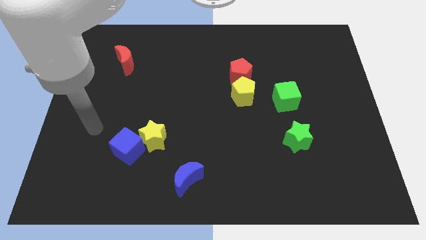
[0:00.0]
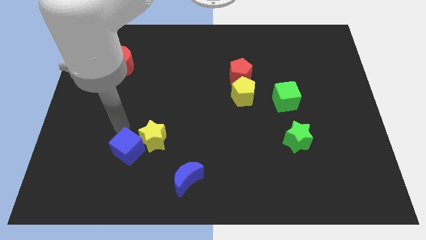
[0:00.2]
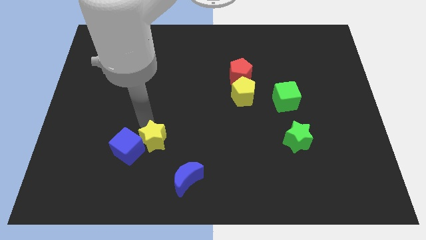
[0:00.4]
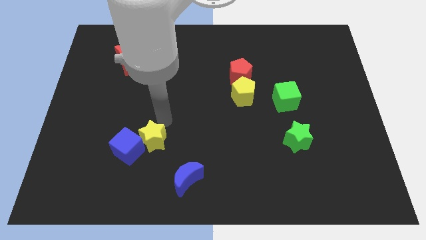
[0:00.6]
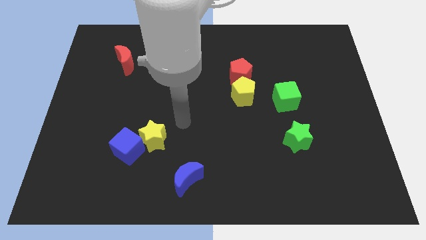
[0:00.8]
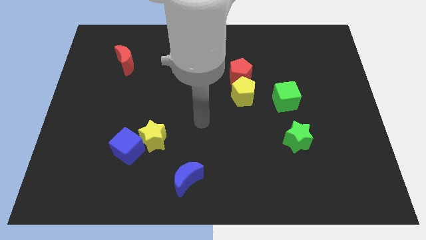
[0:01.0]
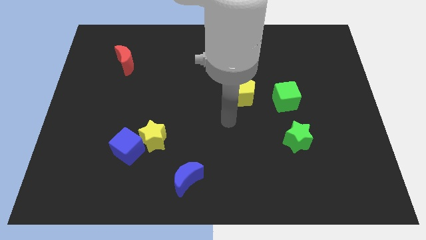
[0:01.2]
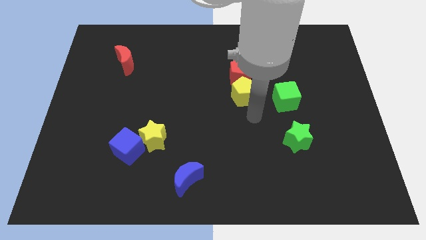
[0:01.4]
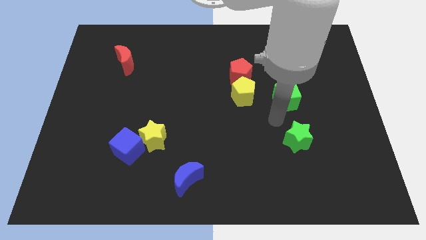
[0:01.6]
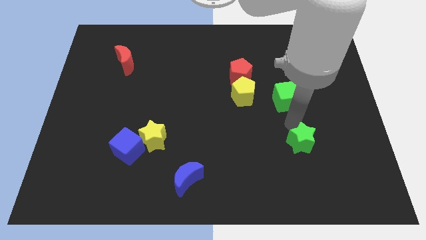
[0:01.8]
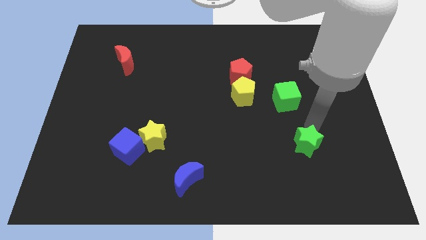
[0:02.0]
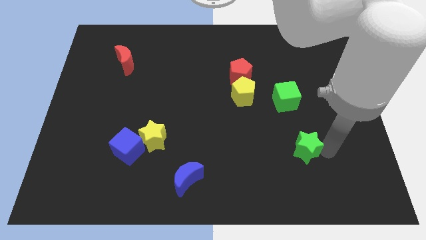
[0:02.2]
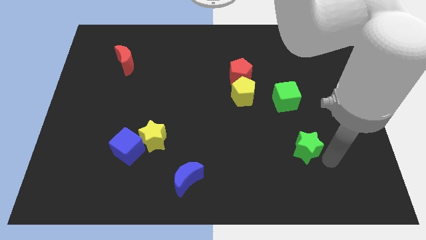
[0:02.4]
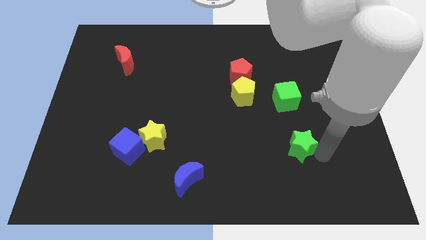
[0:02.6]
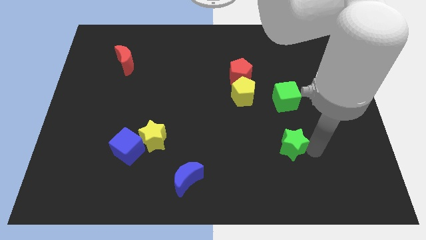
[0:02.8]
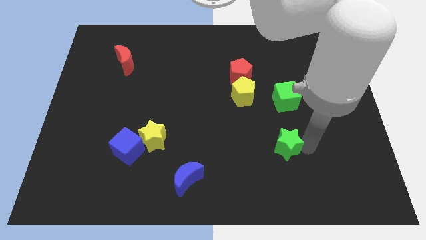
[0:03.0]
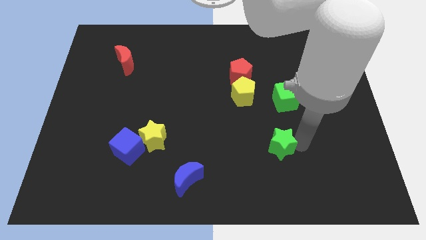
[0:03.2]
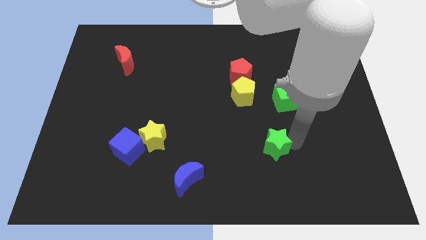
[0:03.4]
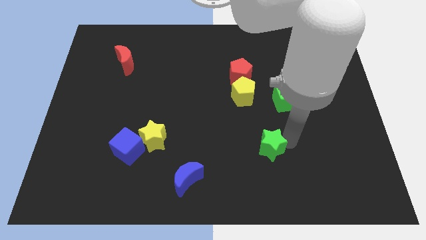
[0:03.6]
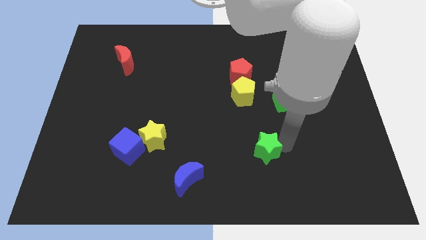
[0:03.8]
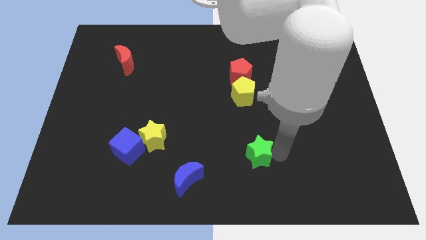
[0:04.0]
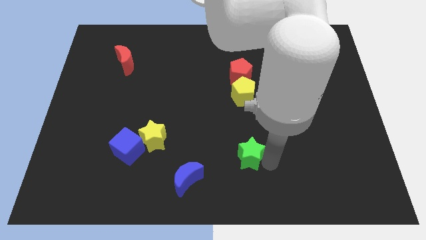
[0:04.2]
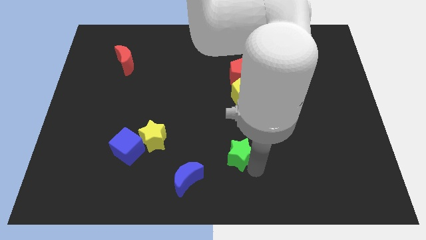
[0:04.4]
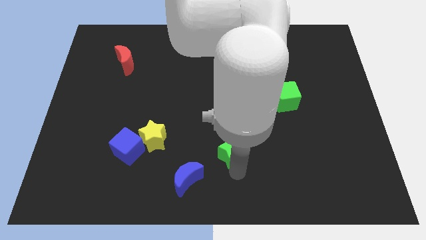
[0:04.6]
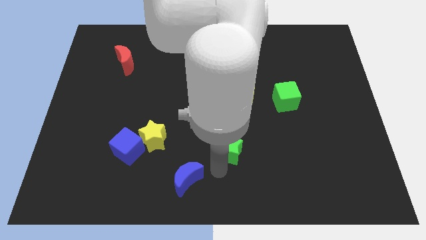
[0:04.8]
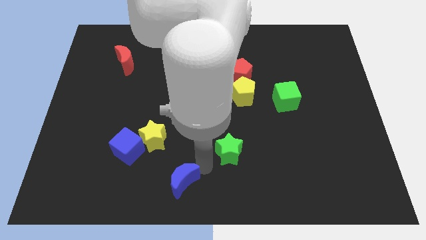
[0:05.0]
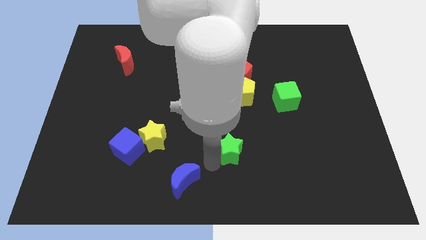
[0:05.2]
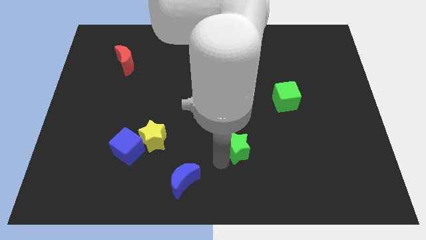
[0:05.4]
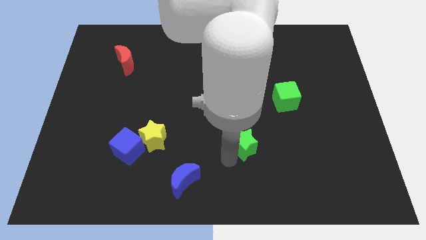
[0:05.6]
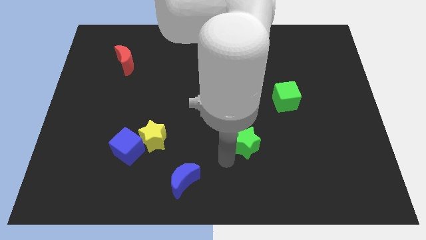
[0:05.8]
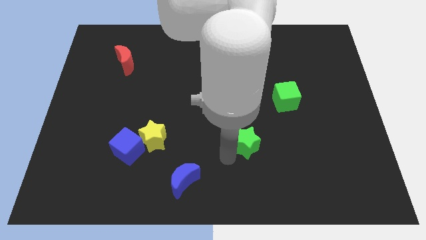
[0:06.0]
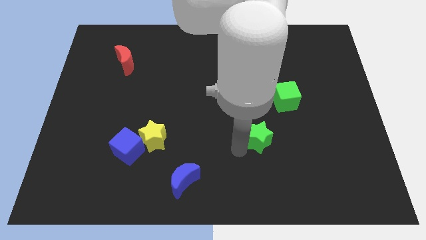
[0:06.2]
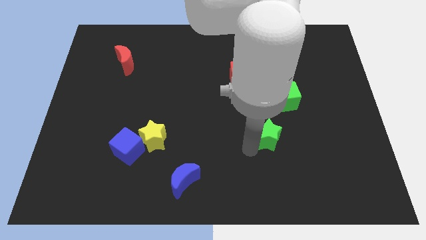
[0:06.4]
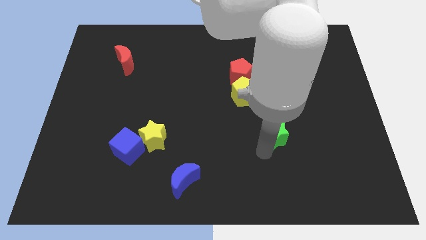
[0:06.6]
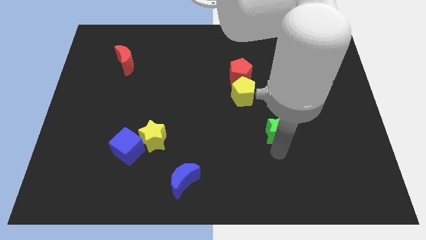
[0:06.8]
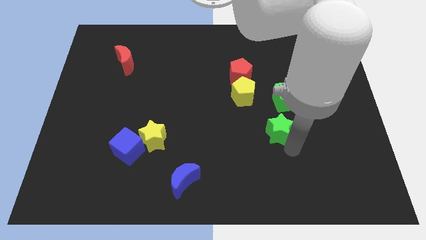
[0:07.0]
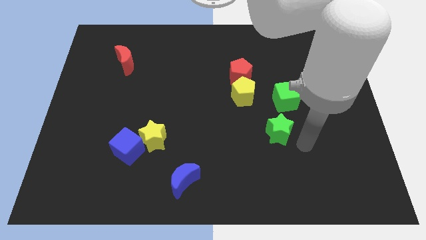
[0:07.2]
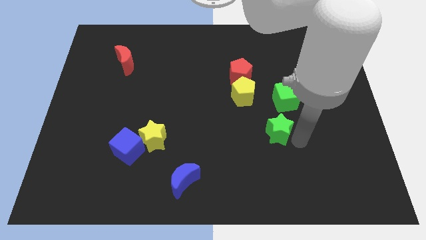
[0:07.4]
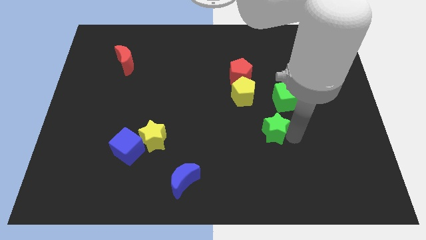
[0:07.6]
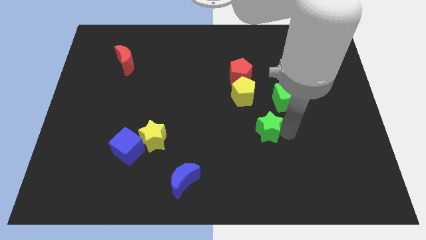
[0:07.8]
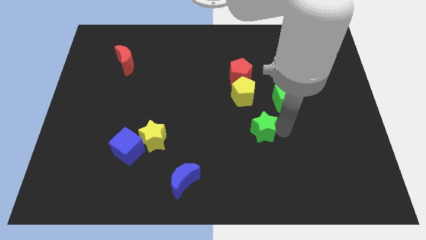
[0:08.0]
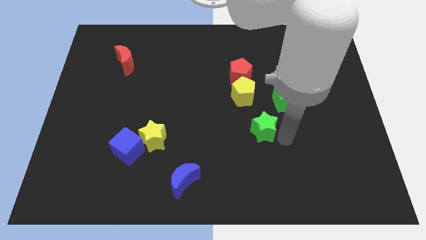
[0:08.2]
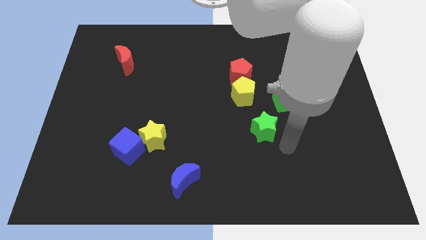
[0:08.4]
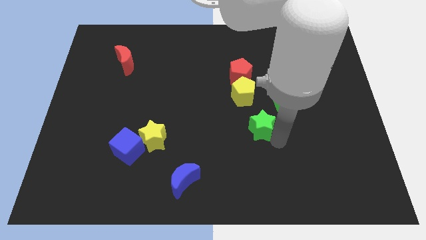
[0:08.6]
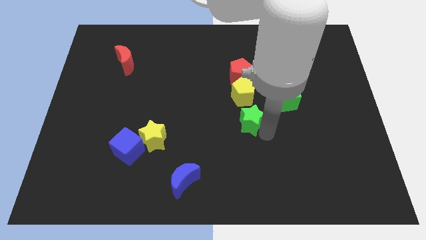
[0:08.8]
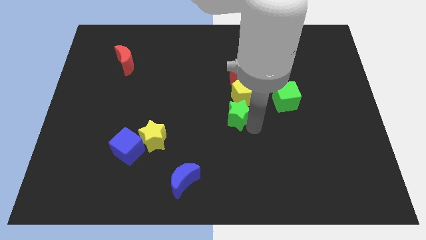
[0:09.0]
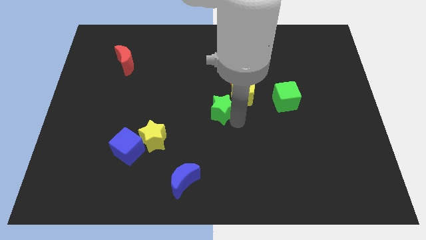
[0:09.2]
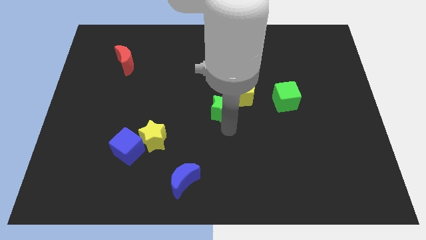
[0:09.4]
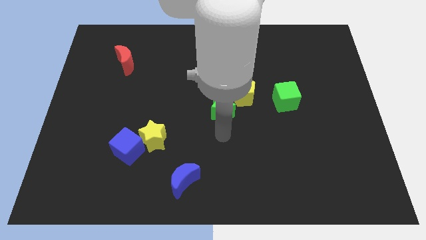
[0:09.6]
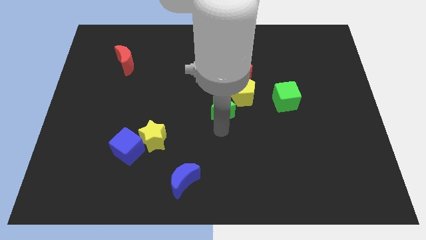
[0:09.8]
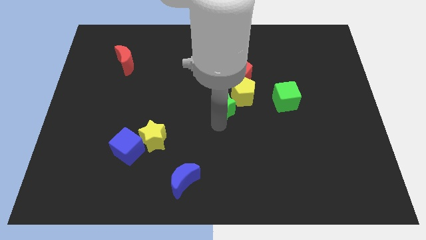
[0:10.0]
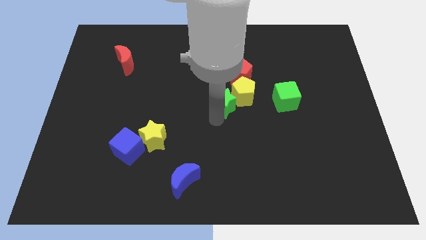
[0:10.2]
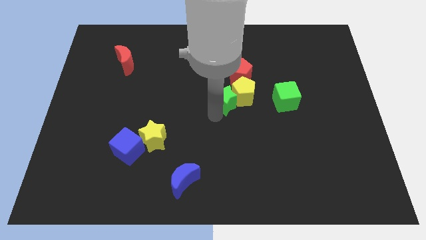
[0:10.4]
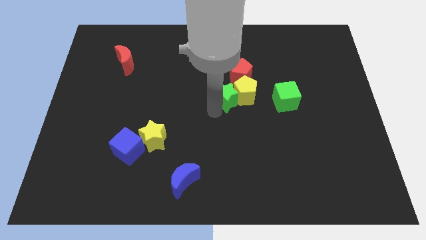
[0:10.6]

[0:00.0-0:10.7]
slide the green star to the top left side of the yellow pentagon
